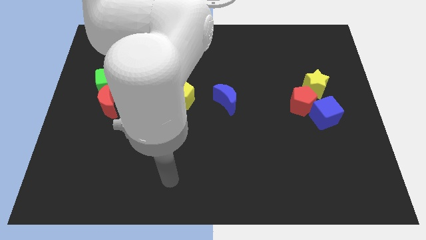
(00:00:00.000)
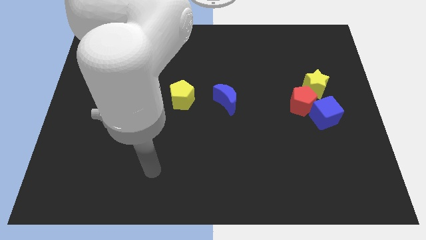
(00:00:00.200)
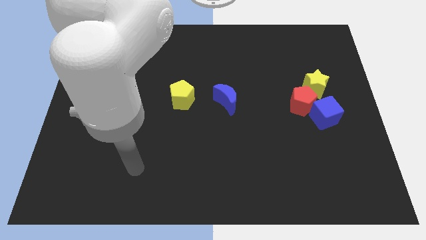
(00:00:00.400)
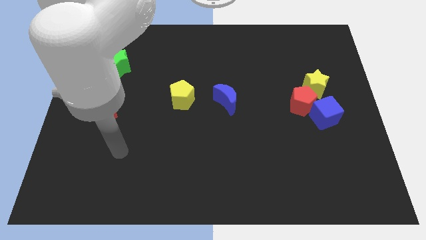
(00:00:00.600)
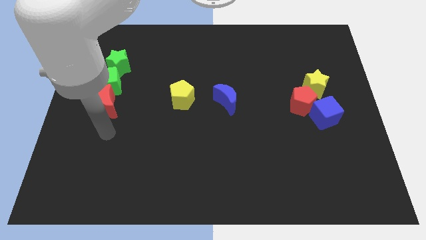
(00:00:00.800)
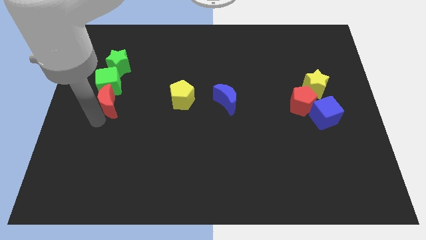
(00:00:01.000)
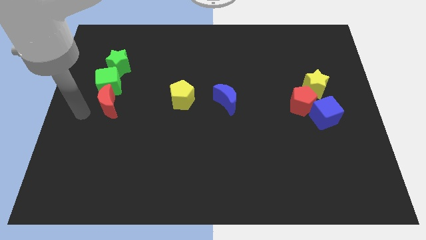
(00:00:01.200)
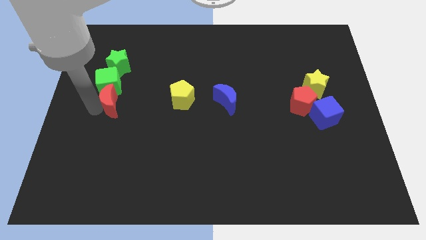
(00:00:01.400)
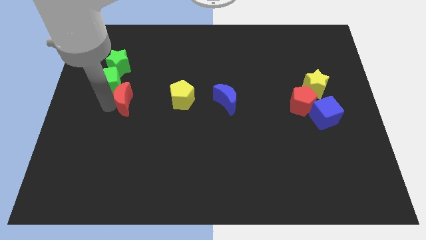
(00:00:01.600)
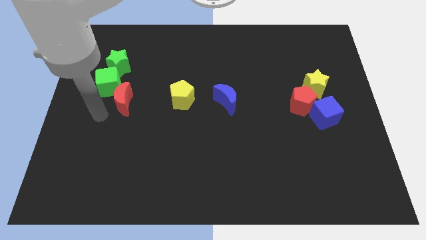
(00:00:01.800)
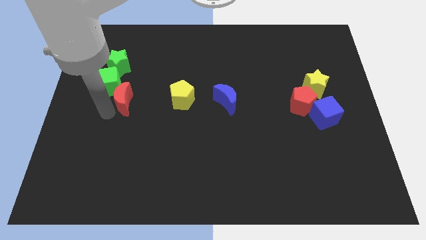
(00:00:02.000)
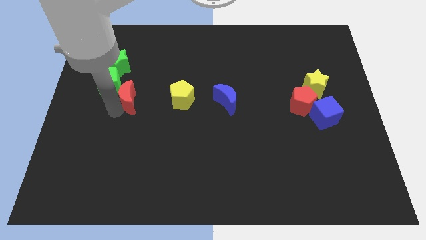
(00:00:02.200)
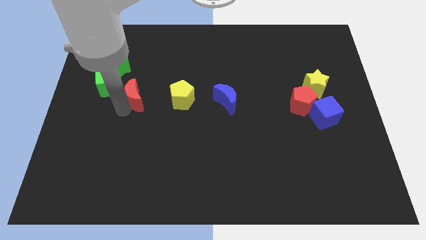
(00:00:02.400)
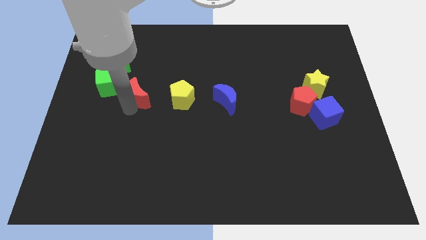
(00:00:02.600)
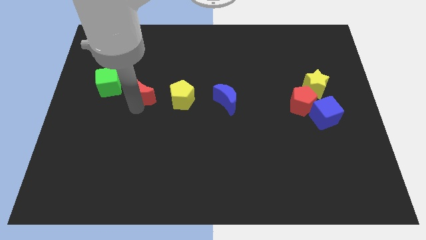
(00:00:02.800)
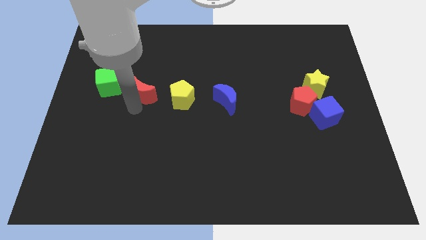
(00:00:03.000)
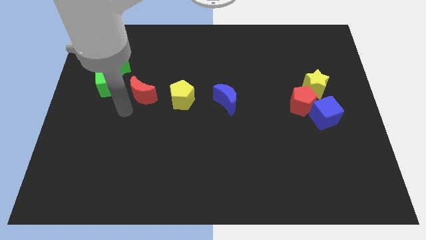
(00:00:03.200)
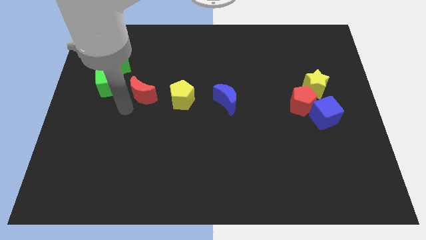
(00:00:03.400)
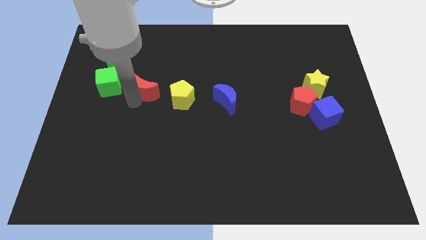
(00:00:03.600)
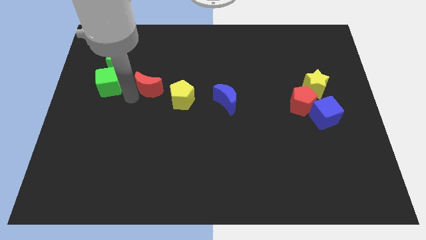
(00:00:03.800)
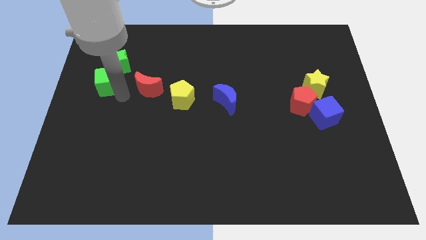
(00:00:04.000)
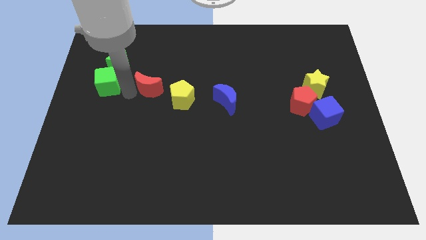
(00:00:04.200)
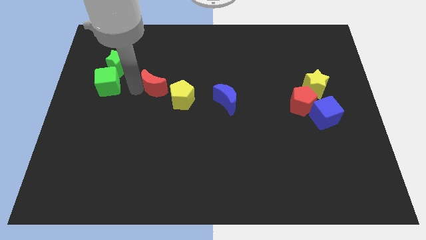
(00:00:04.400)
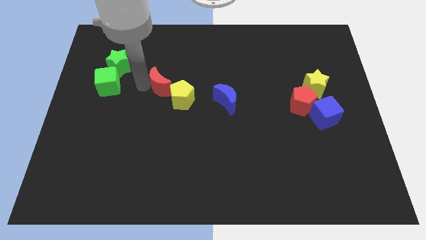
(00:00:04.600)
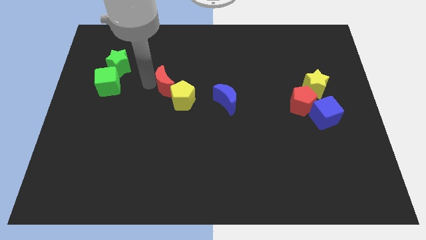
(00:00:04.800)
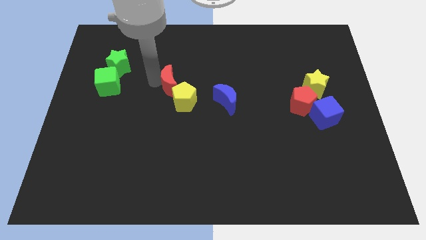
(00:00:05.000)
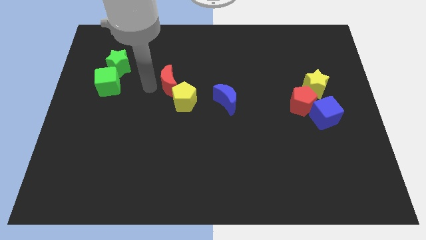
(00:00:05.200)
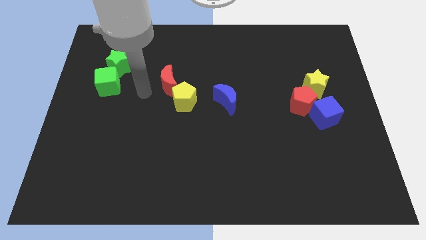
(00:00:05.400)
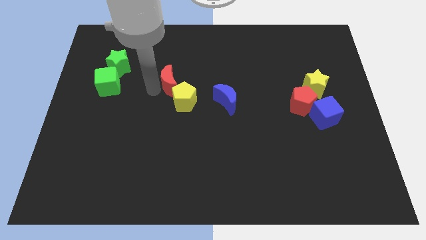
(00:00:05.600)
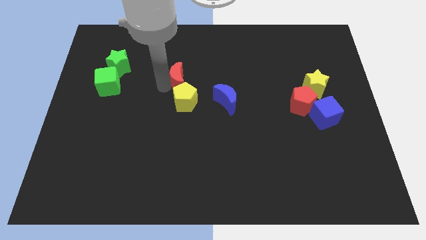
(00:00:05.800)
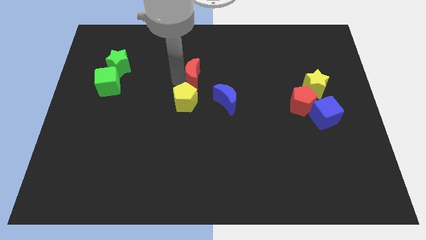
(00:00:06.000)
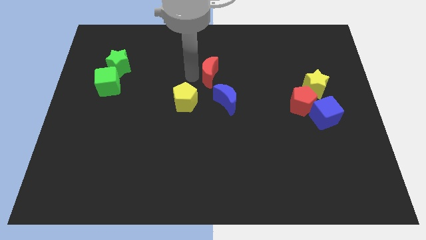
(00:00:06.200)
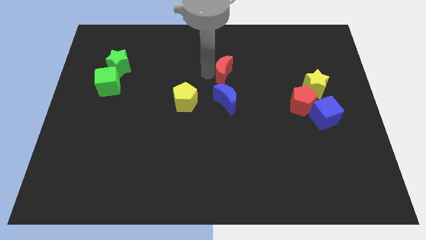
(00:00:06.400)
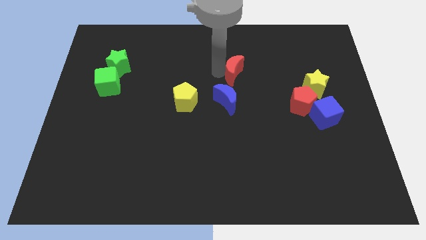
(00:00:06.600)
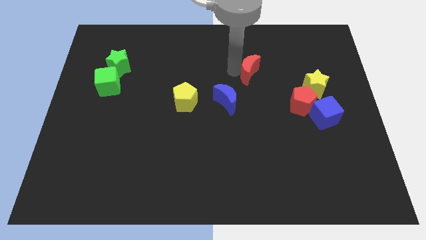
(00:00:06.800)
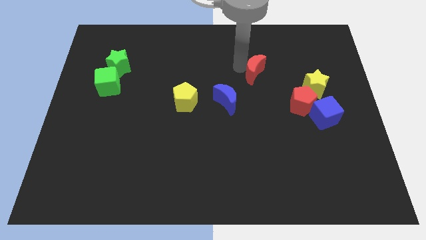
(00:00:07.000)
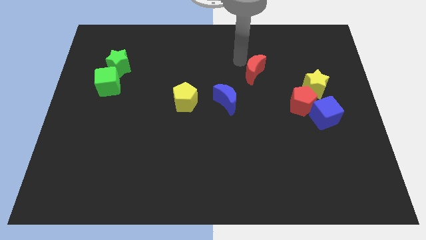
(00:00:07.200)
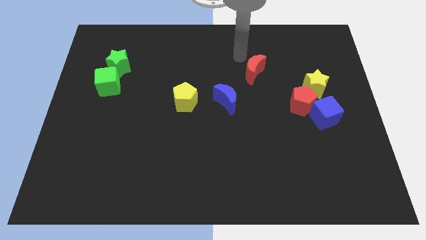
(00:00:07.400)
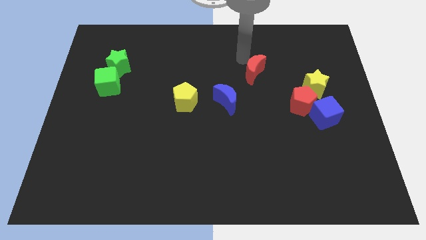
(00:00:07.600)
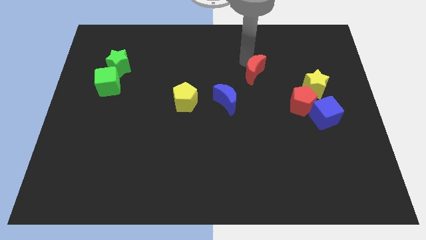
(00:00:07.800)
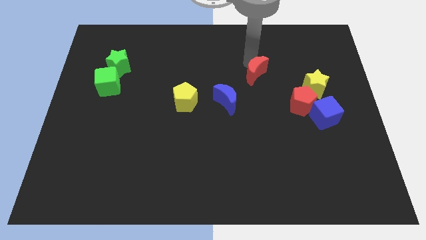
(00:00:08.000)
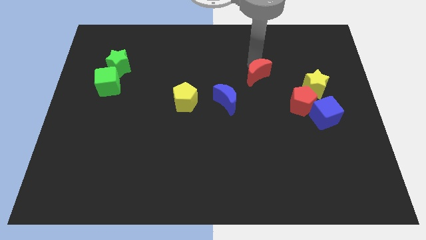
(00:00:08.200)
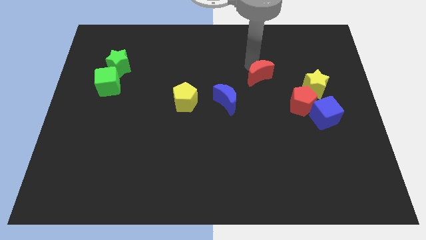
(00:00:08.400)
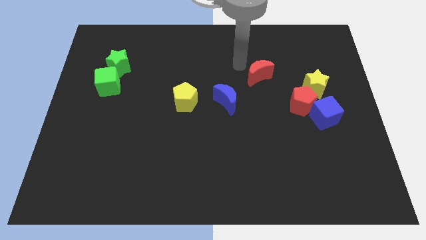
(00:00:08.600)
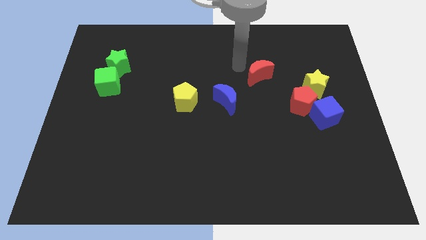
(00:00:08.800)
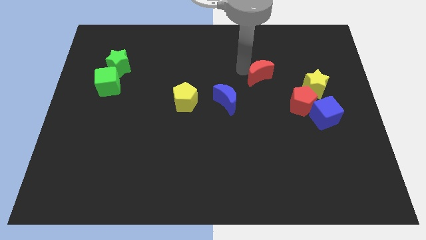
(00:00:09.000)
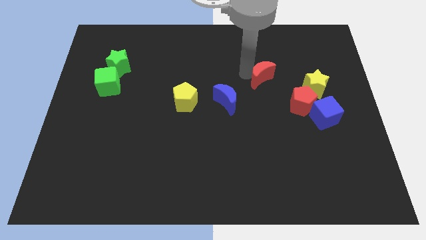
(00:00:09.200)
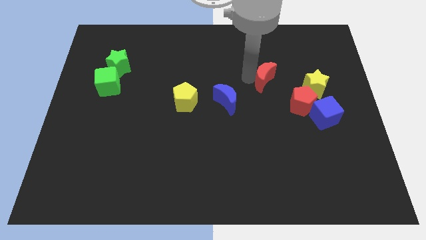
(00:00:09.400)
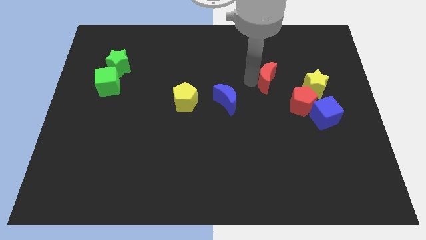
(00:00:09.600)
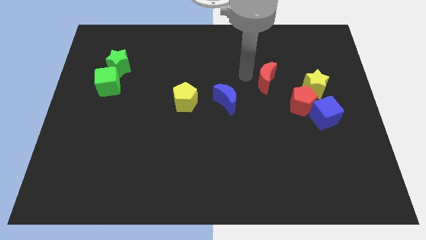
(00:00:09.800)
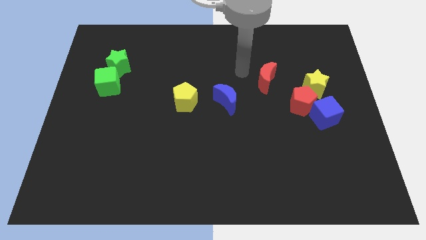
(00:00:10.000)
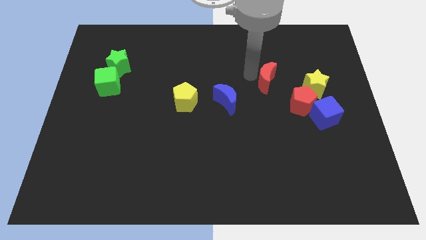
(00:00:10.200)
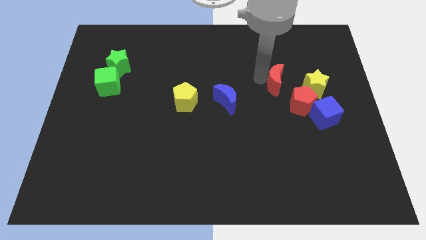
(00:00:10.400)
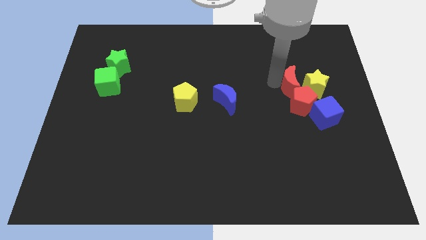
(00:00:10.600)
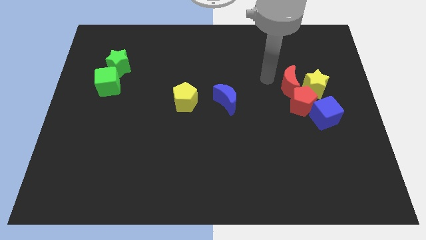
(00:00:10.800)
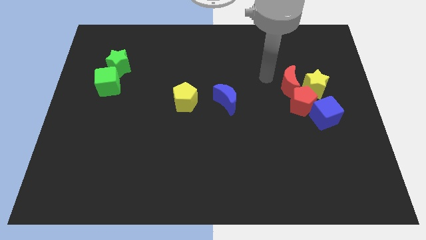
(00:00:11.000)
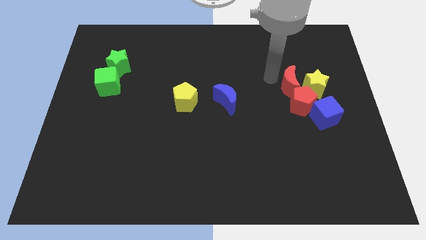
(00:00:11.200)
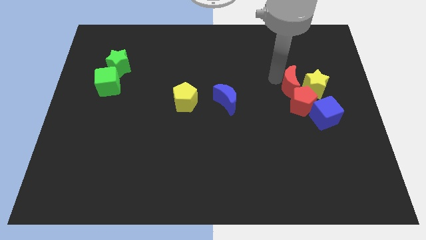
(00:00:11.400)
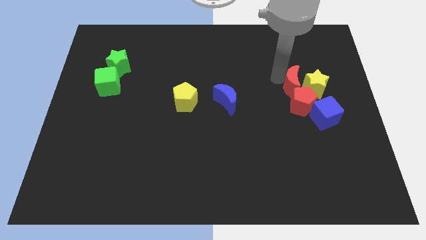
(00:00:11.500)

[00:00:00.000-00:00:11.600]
slide the red moon towards the yellow star

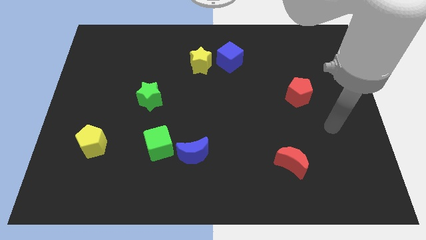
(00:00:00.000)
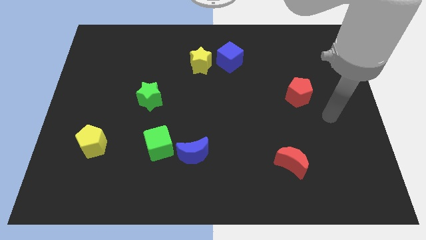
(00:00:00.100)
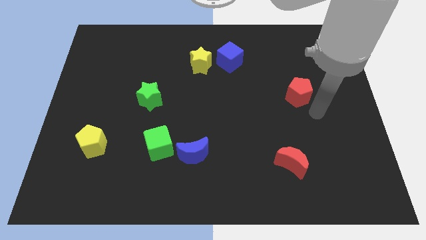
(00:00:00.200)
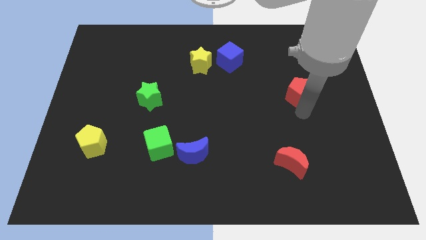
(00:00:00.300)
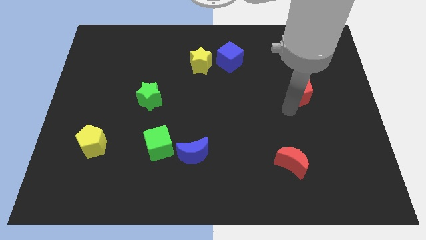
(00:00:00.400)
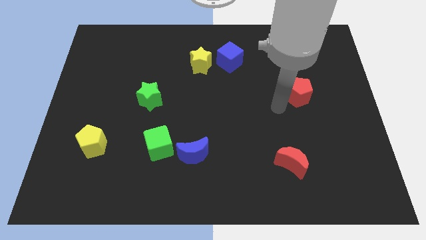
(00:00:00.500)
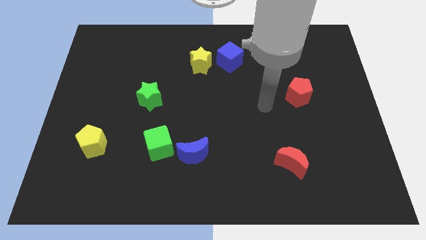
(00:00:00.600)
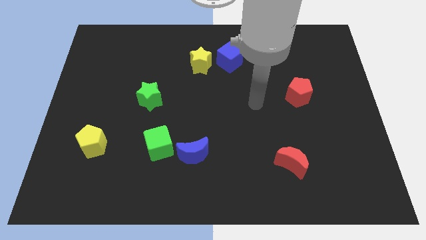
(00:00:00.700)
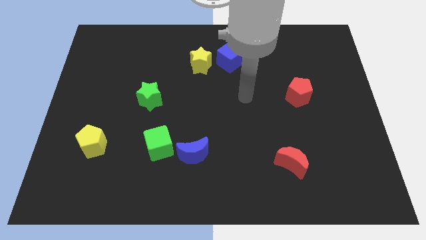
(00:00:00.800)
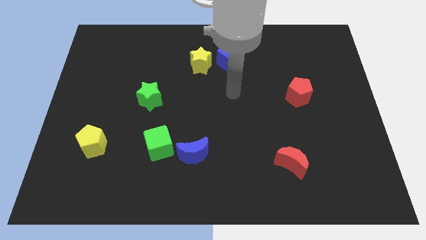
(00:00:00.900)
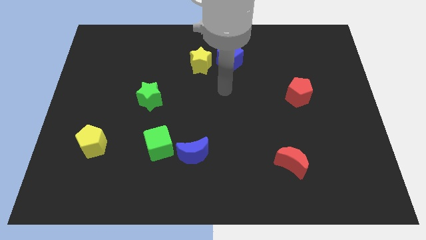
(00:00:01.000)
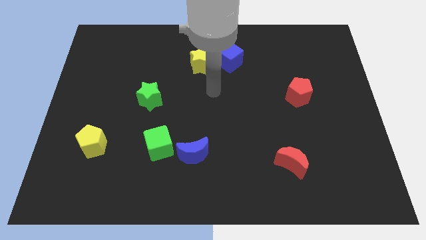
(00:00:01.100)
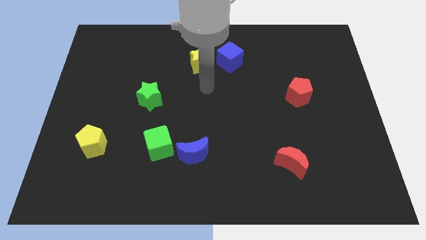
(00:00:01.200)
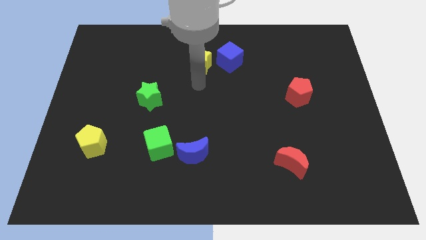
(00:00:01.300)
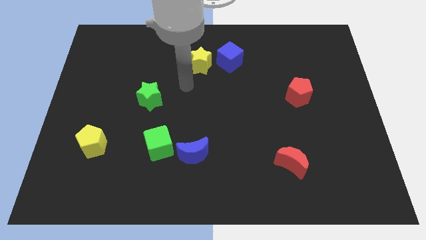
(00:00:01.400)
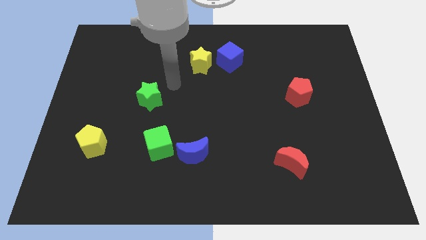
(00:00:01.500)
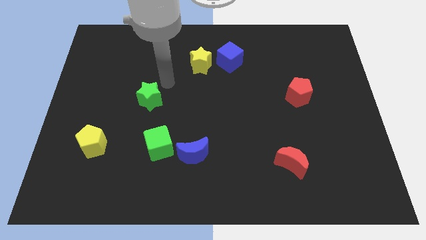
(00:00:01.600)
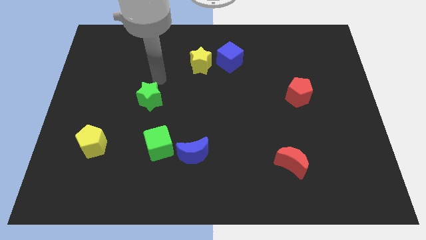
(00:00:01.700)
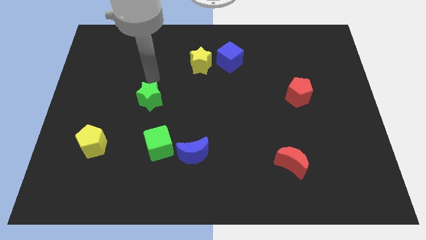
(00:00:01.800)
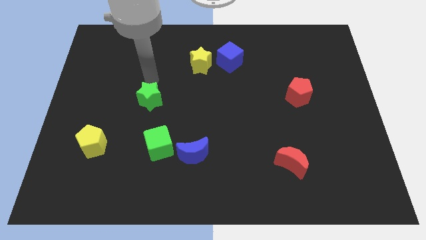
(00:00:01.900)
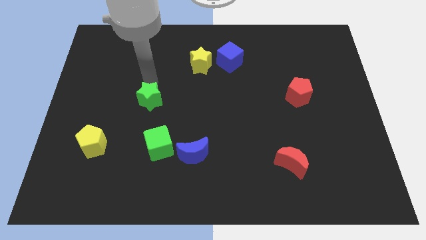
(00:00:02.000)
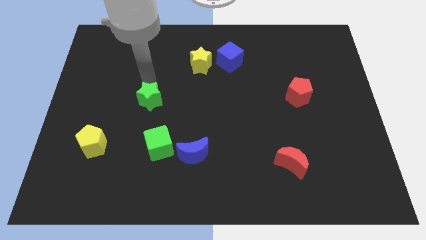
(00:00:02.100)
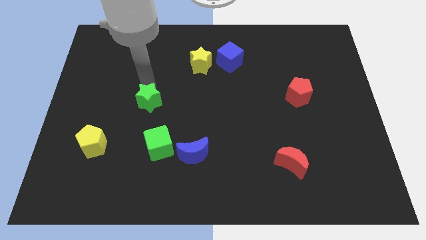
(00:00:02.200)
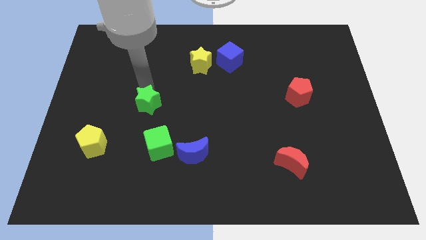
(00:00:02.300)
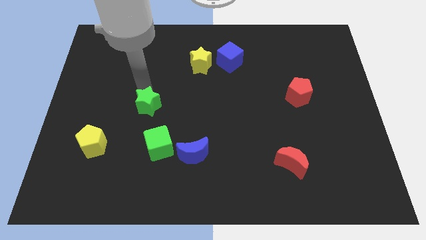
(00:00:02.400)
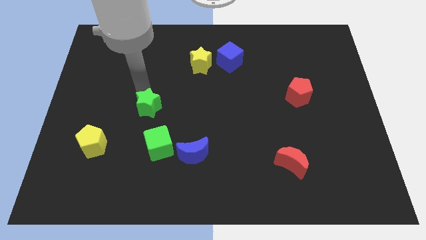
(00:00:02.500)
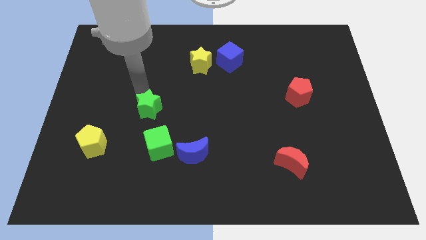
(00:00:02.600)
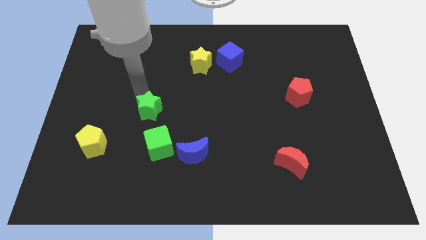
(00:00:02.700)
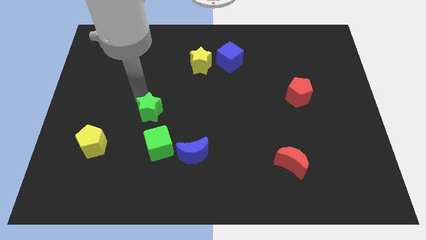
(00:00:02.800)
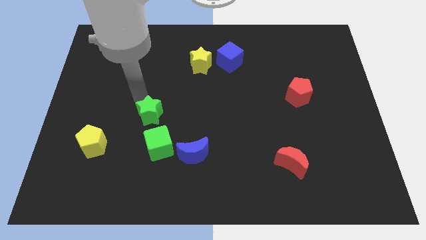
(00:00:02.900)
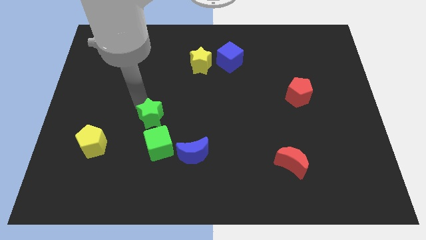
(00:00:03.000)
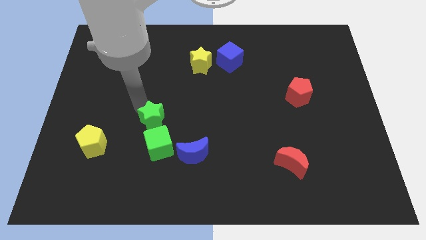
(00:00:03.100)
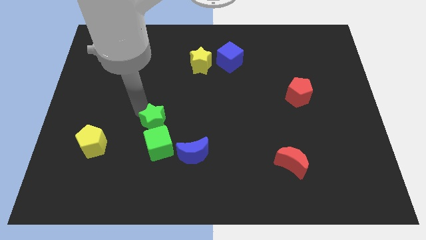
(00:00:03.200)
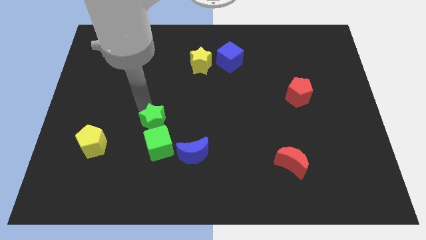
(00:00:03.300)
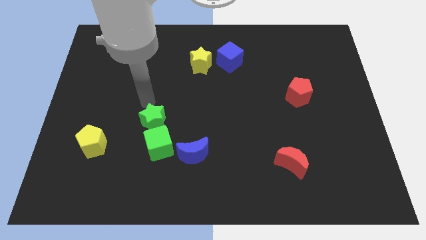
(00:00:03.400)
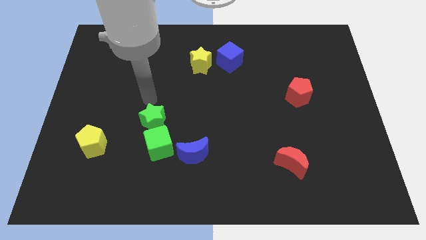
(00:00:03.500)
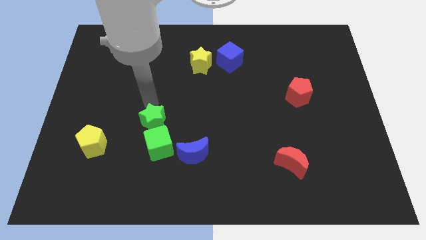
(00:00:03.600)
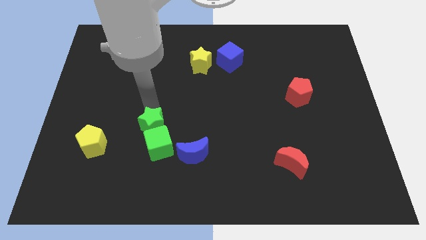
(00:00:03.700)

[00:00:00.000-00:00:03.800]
move the green star next to the green cube
